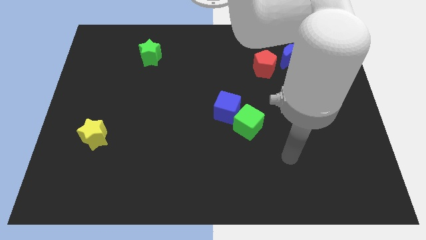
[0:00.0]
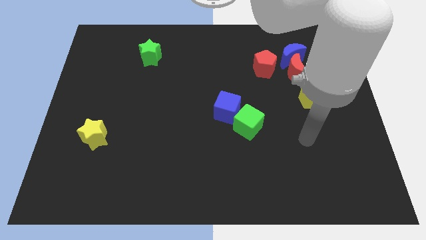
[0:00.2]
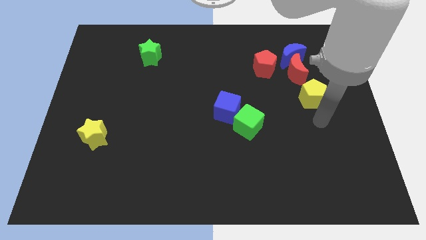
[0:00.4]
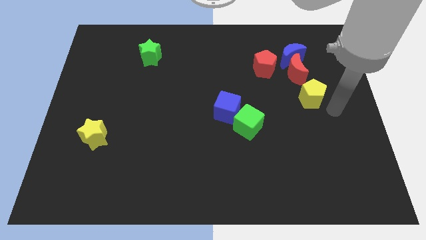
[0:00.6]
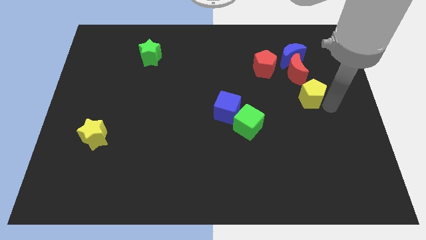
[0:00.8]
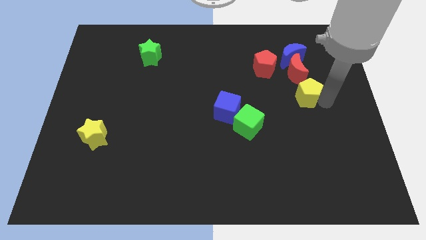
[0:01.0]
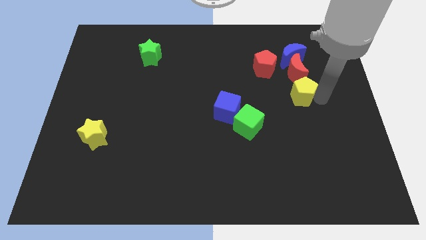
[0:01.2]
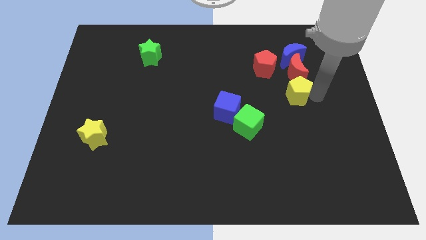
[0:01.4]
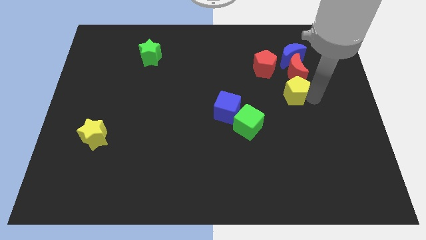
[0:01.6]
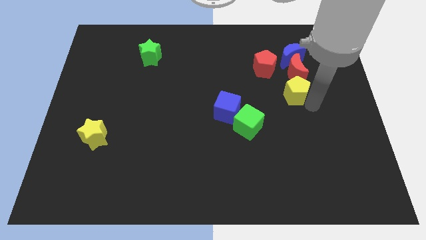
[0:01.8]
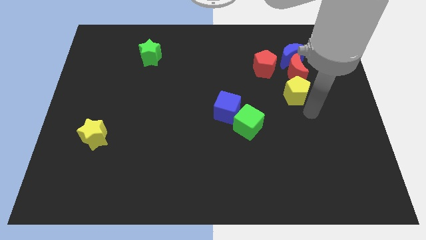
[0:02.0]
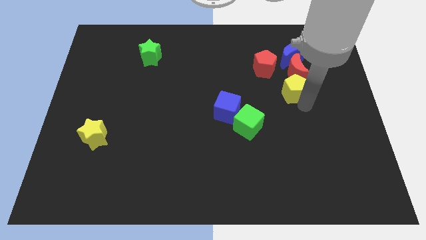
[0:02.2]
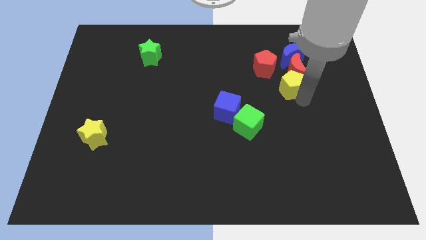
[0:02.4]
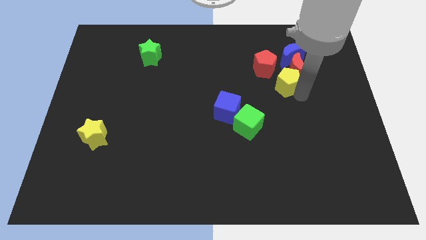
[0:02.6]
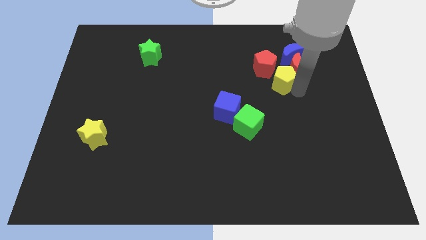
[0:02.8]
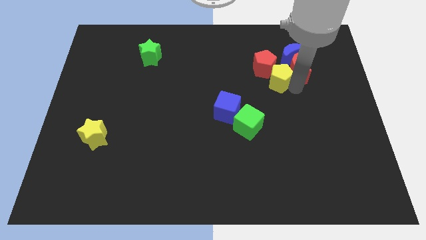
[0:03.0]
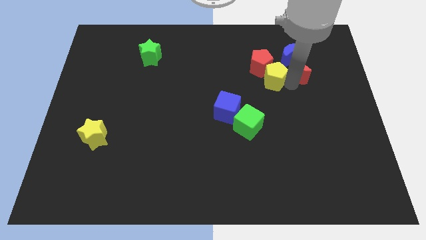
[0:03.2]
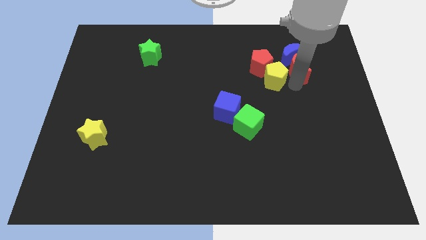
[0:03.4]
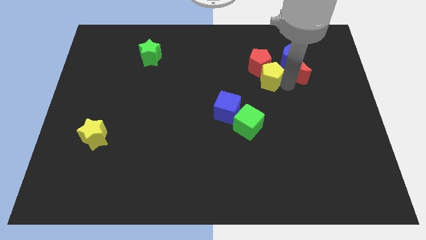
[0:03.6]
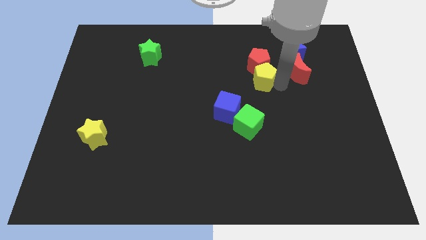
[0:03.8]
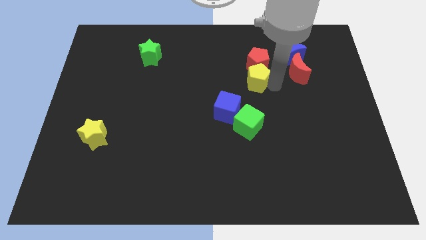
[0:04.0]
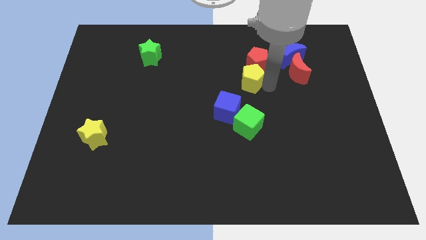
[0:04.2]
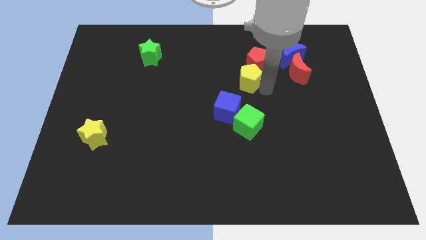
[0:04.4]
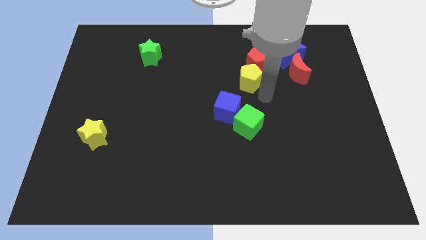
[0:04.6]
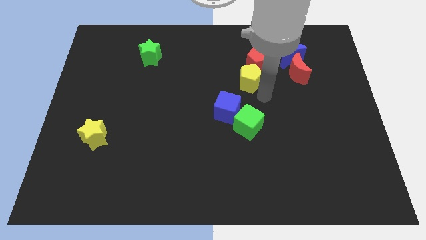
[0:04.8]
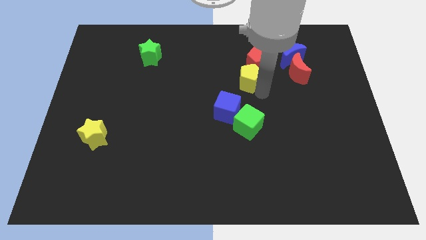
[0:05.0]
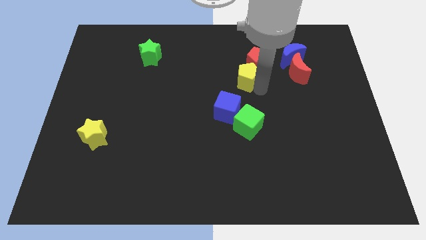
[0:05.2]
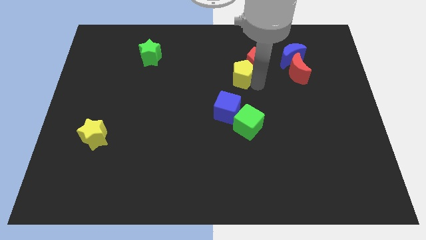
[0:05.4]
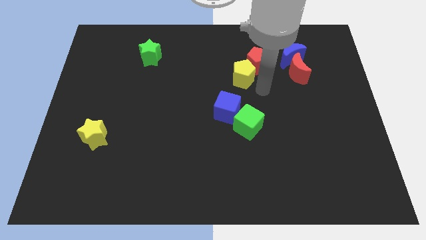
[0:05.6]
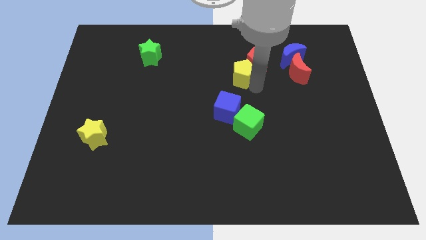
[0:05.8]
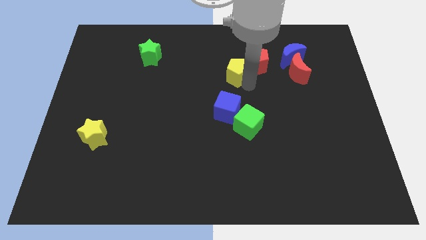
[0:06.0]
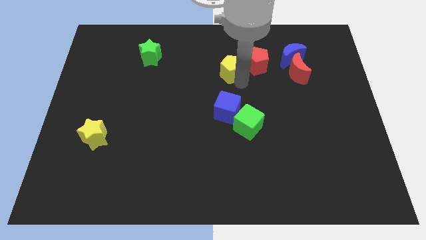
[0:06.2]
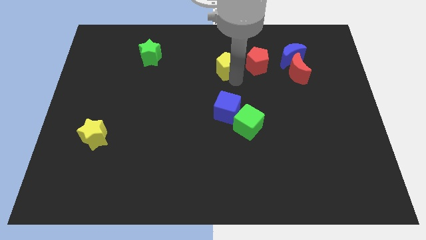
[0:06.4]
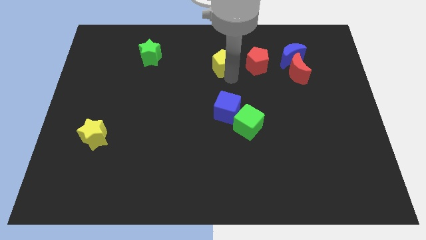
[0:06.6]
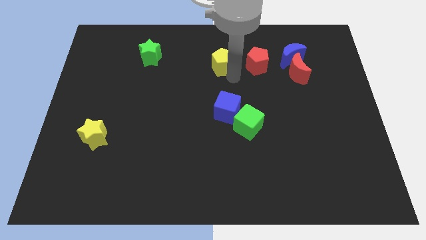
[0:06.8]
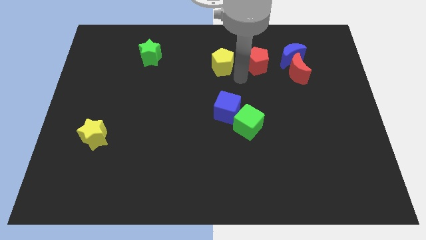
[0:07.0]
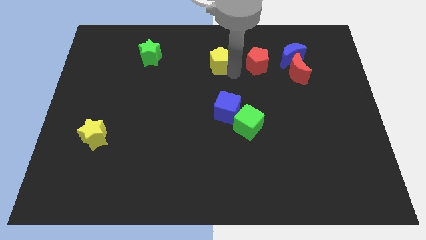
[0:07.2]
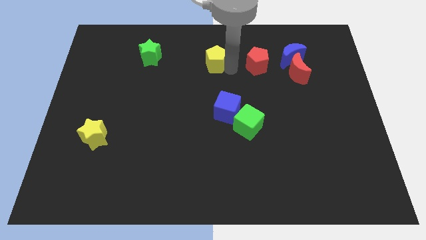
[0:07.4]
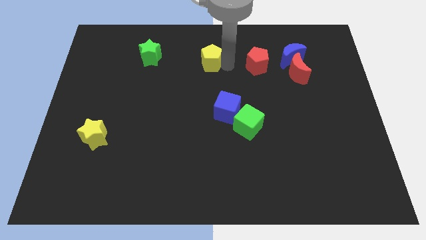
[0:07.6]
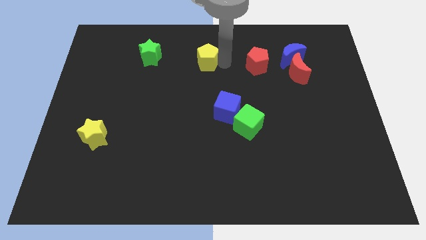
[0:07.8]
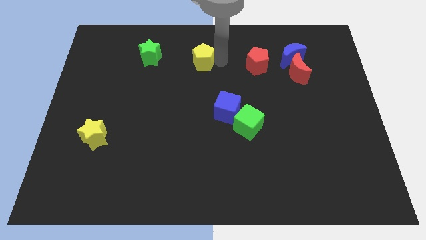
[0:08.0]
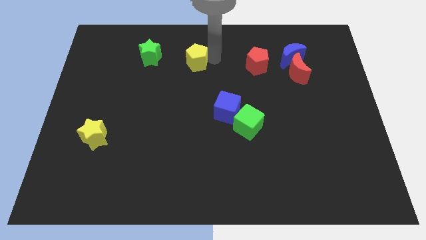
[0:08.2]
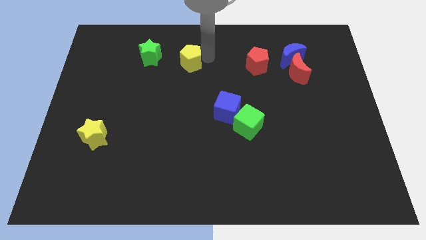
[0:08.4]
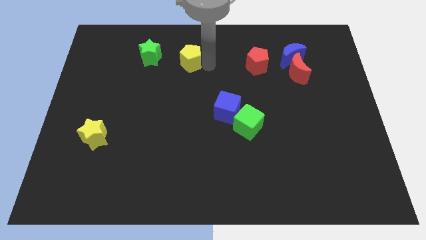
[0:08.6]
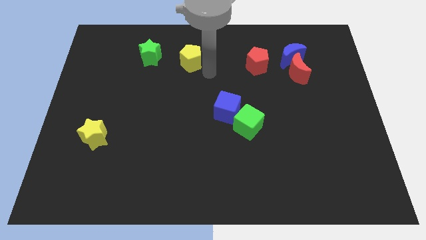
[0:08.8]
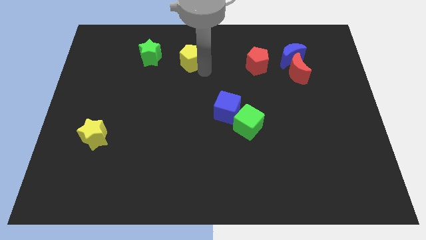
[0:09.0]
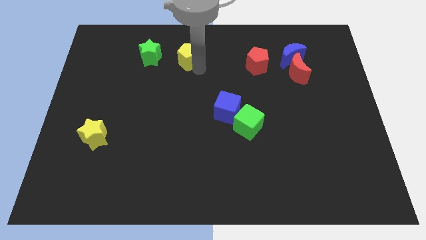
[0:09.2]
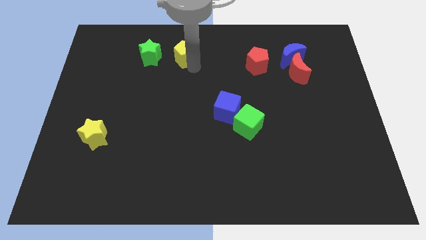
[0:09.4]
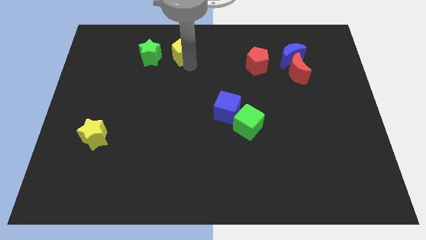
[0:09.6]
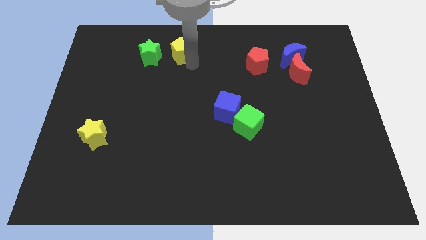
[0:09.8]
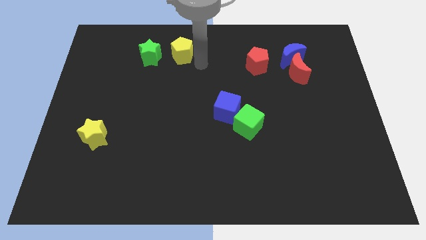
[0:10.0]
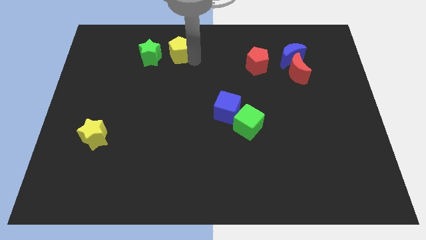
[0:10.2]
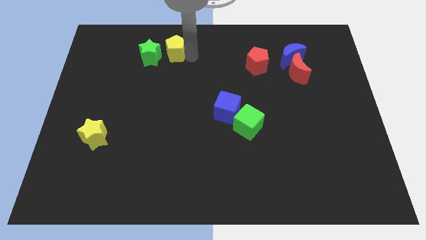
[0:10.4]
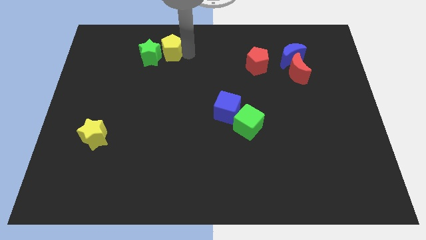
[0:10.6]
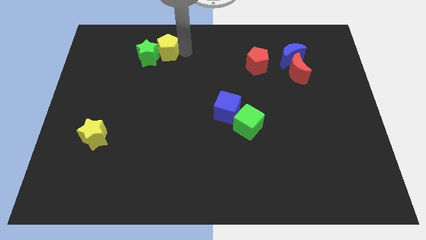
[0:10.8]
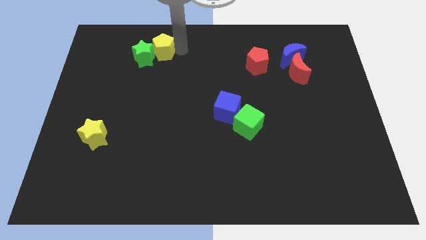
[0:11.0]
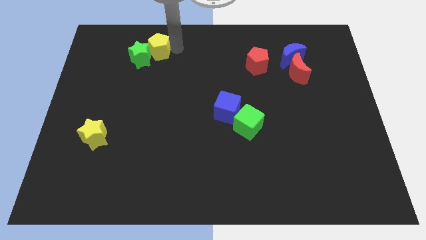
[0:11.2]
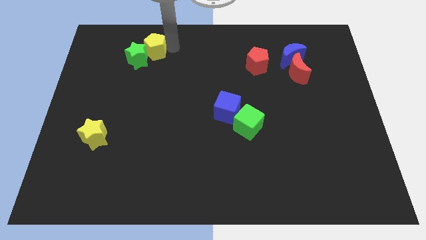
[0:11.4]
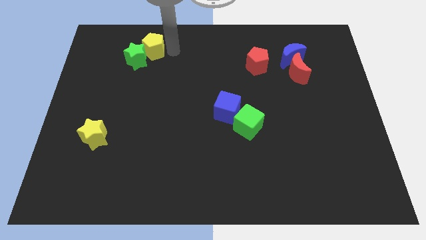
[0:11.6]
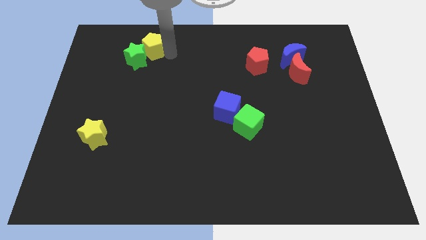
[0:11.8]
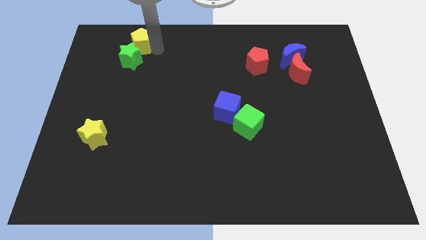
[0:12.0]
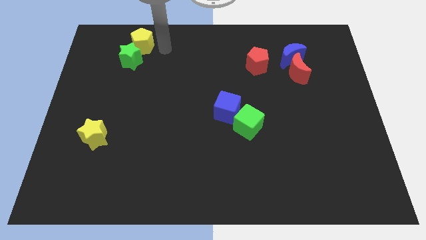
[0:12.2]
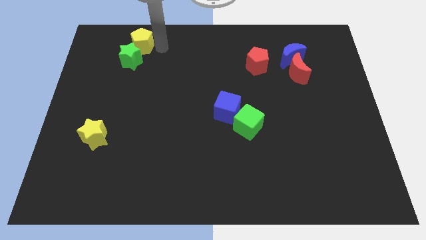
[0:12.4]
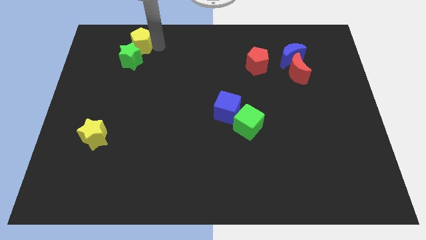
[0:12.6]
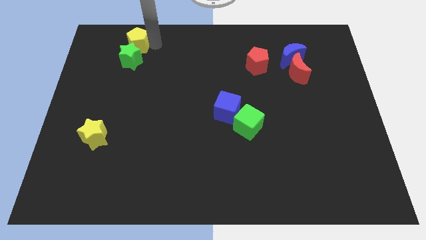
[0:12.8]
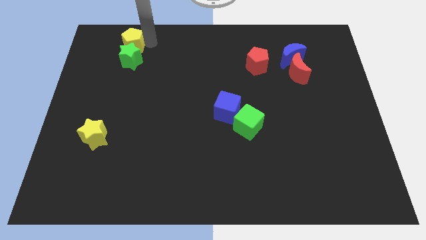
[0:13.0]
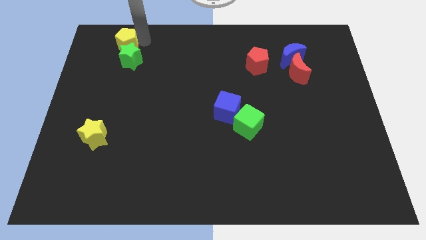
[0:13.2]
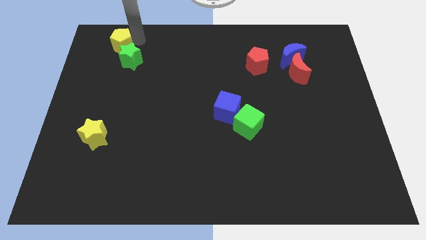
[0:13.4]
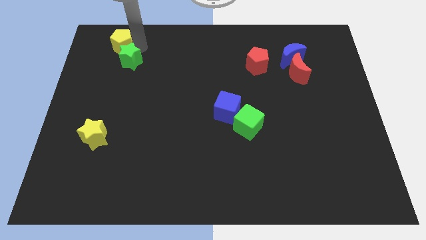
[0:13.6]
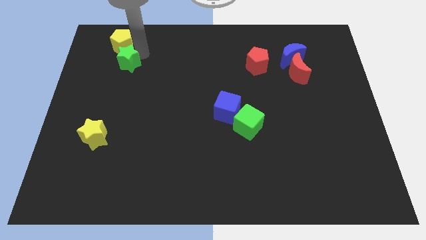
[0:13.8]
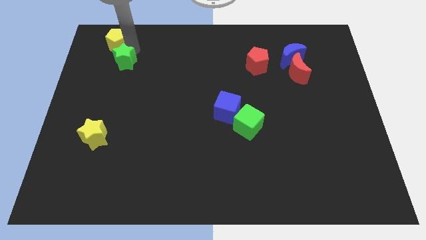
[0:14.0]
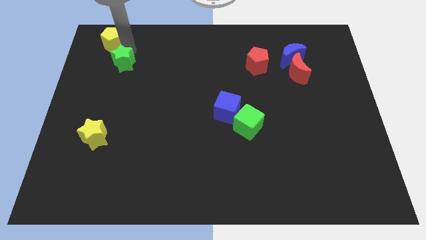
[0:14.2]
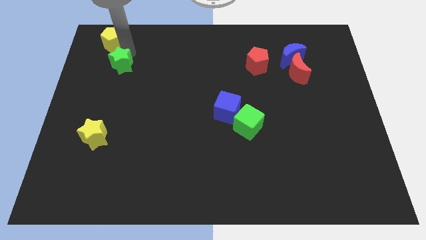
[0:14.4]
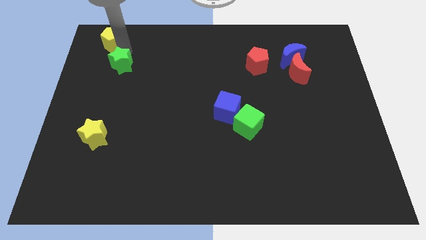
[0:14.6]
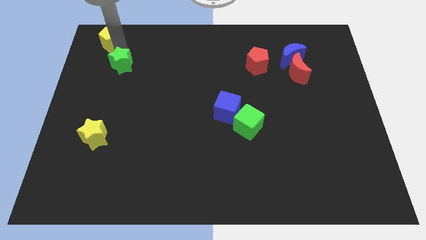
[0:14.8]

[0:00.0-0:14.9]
push the yellow pentagon to the top left of the board
